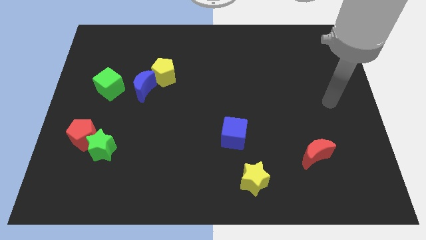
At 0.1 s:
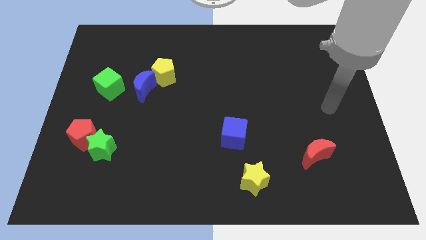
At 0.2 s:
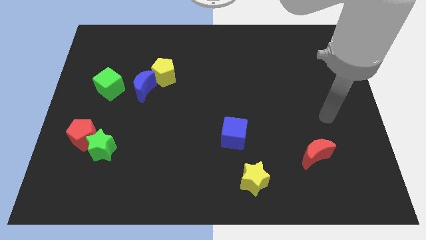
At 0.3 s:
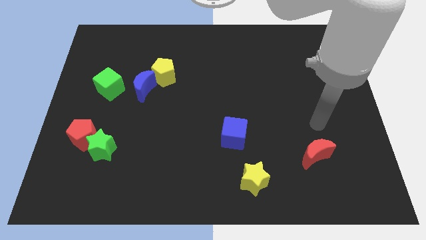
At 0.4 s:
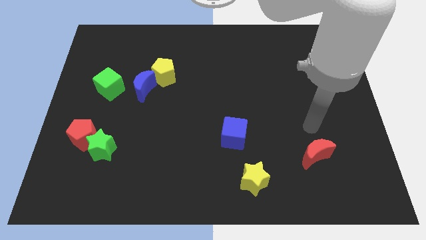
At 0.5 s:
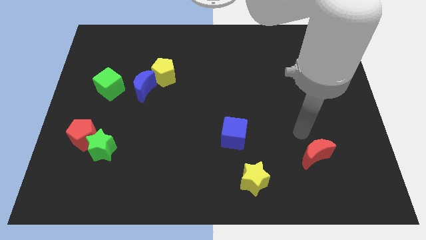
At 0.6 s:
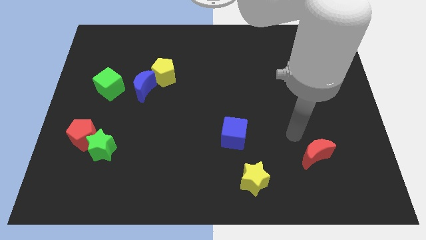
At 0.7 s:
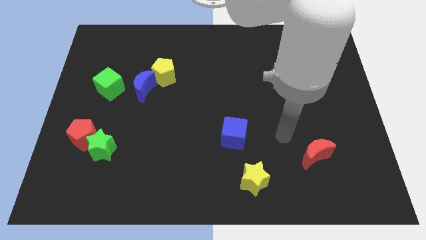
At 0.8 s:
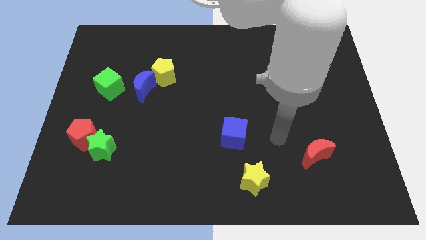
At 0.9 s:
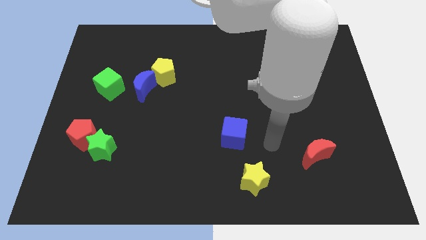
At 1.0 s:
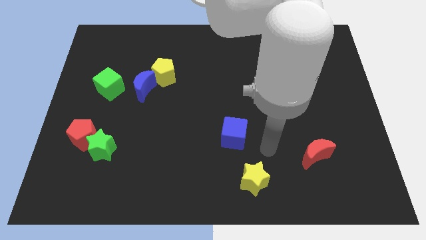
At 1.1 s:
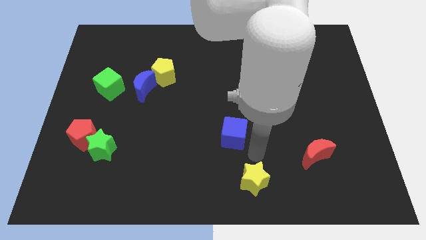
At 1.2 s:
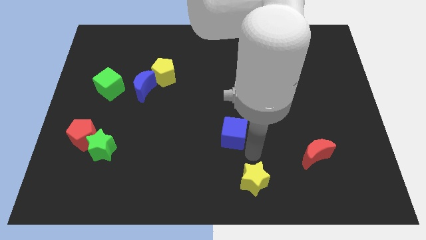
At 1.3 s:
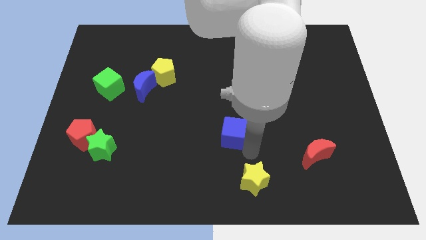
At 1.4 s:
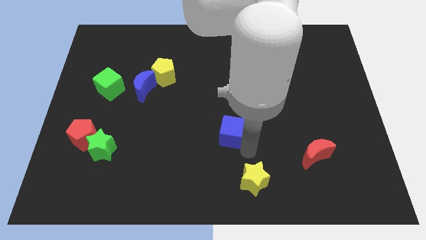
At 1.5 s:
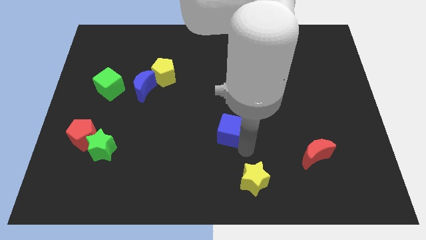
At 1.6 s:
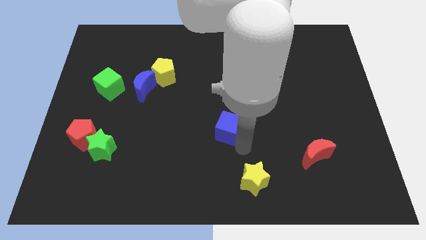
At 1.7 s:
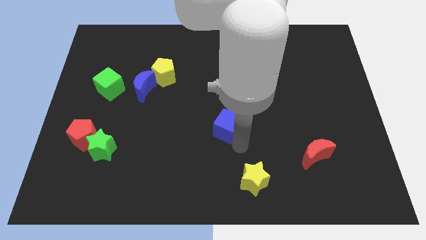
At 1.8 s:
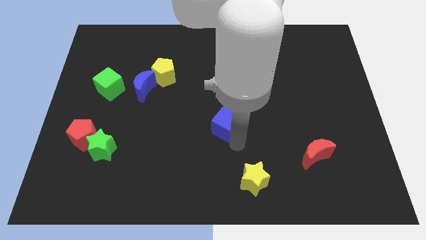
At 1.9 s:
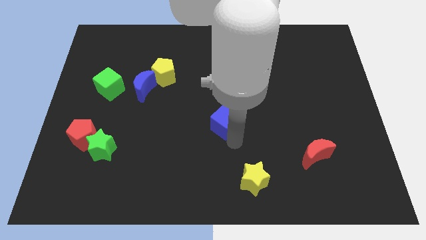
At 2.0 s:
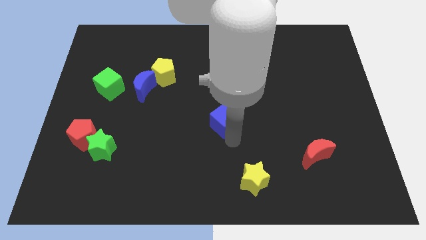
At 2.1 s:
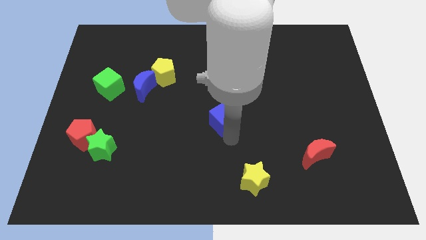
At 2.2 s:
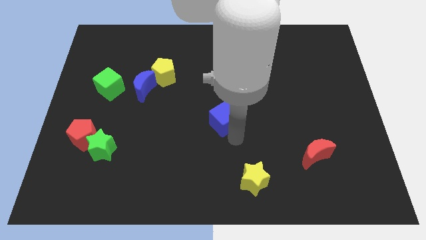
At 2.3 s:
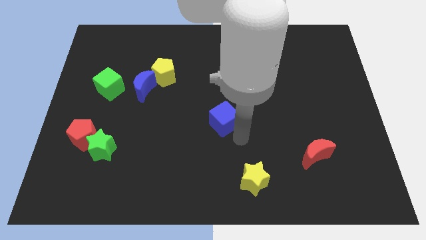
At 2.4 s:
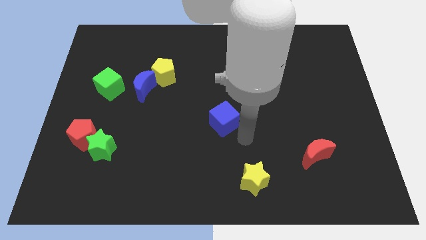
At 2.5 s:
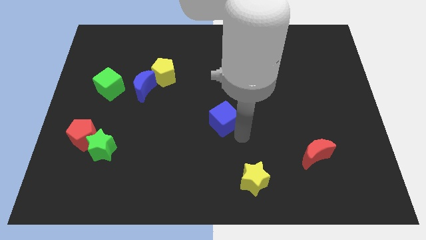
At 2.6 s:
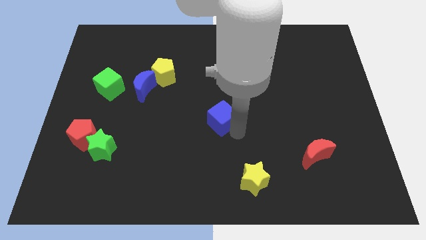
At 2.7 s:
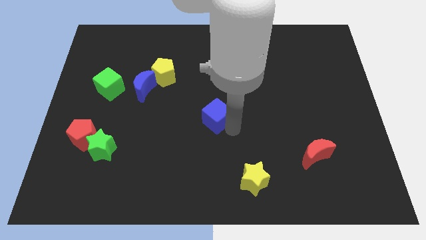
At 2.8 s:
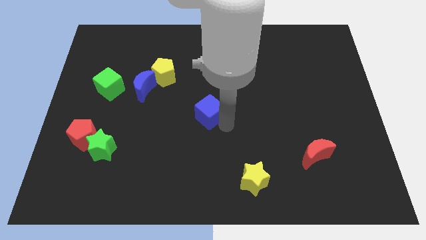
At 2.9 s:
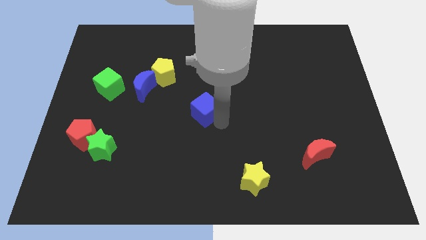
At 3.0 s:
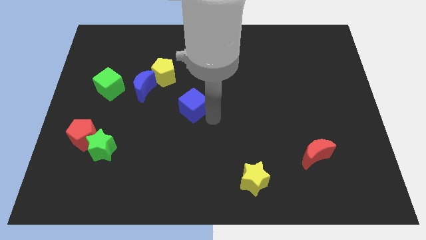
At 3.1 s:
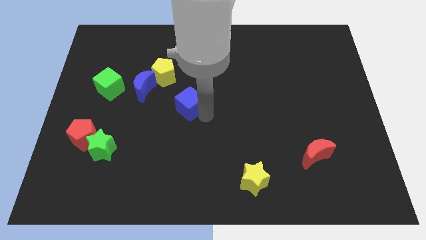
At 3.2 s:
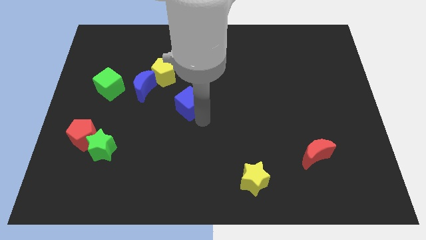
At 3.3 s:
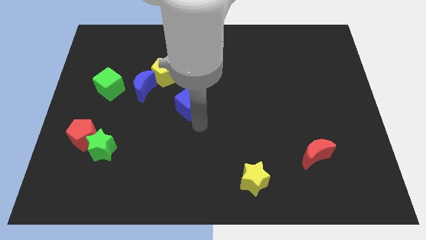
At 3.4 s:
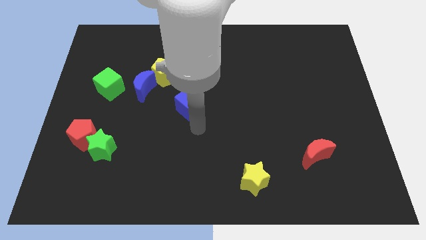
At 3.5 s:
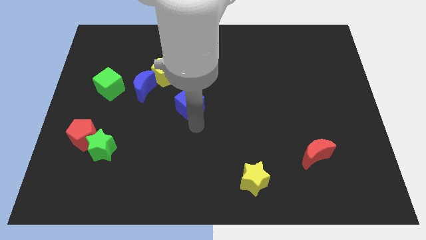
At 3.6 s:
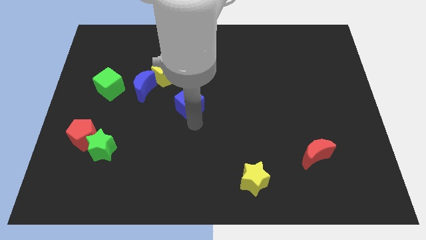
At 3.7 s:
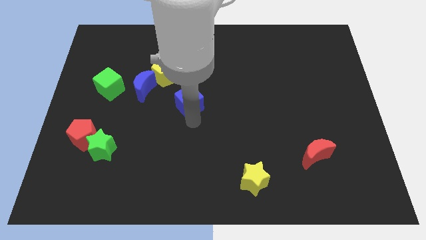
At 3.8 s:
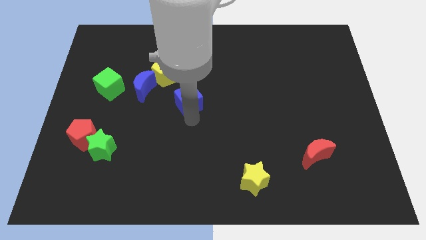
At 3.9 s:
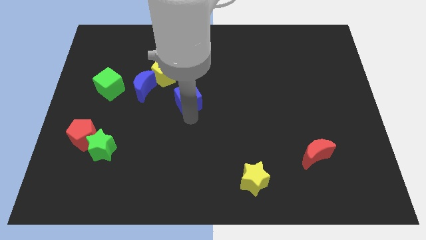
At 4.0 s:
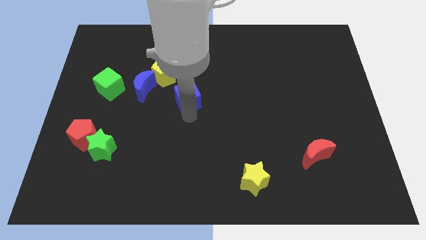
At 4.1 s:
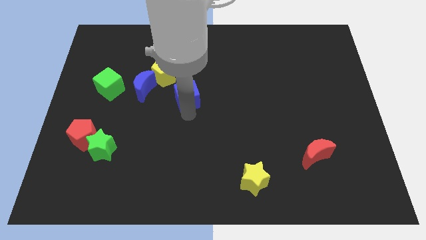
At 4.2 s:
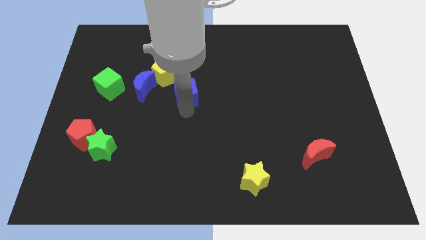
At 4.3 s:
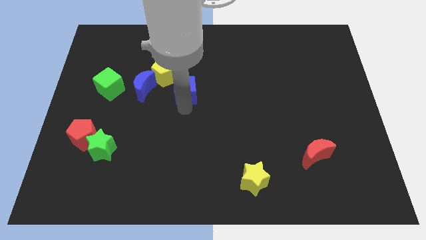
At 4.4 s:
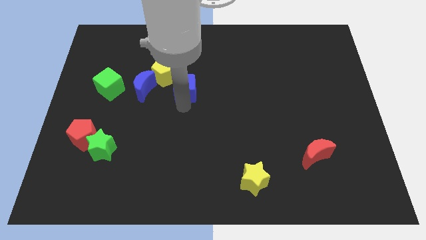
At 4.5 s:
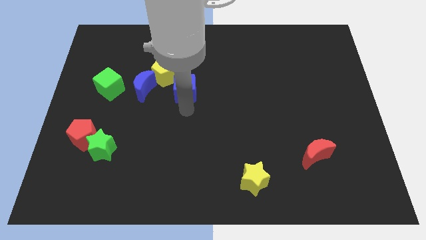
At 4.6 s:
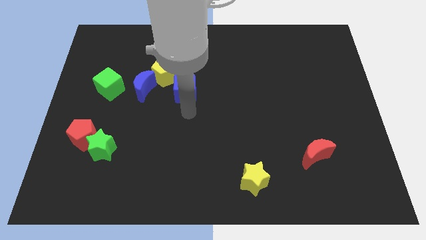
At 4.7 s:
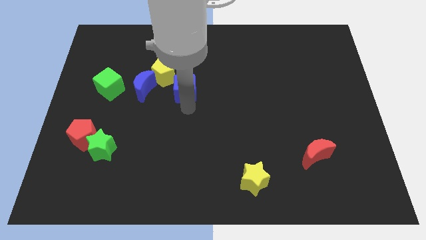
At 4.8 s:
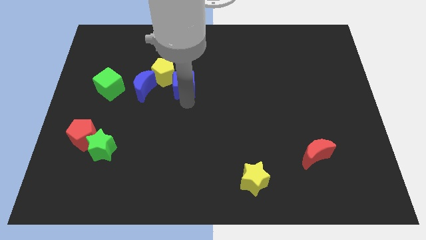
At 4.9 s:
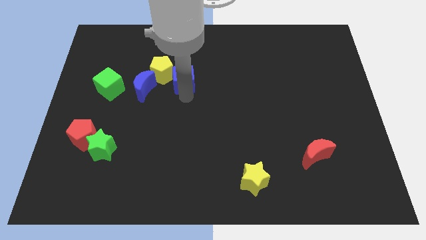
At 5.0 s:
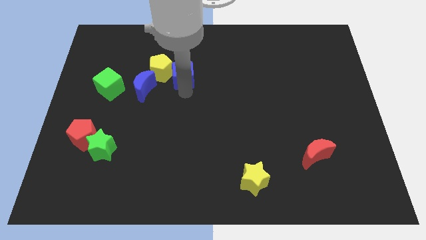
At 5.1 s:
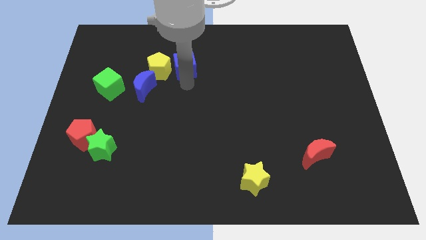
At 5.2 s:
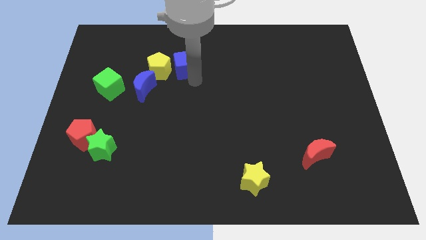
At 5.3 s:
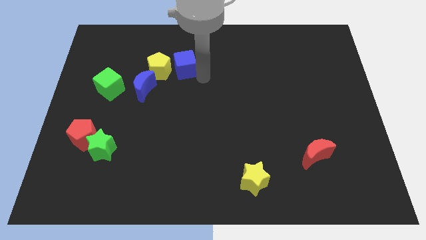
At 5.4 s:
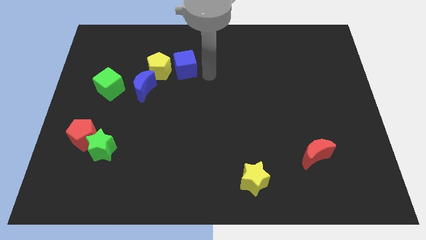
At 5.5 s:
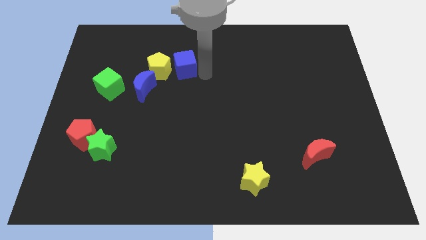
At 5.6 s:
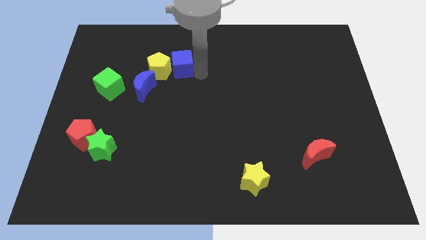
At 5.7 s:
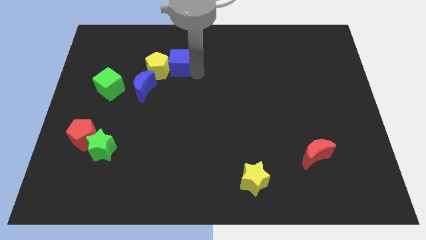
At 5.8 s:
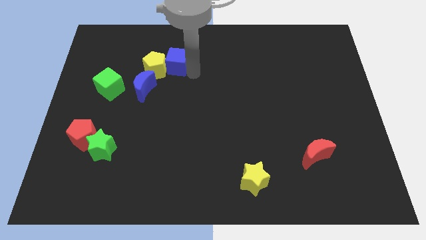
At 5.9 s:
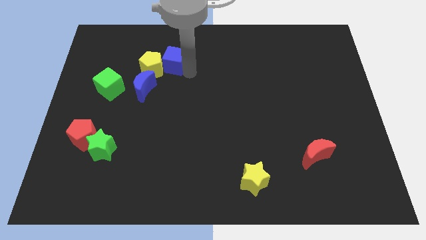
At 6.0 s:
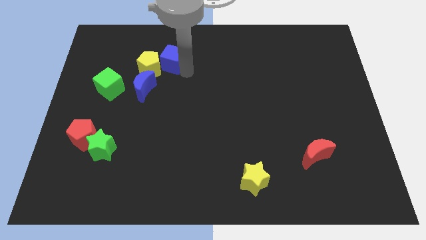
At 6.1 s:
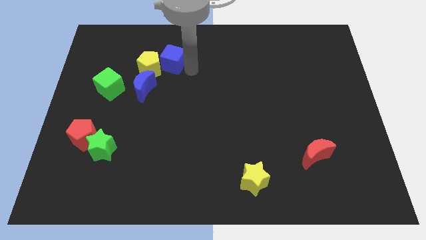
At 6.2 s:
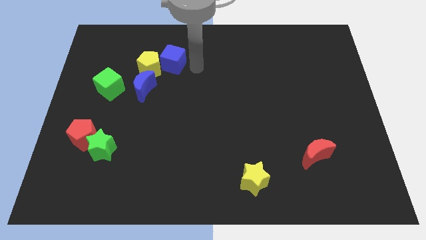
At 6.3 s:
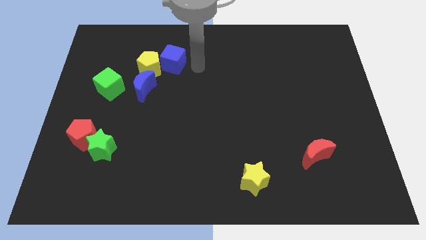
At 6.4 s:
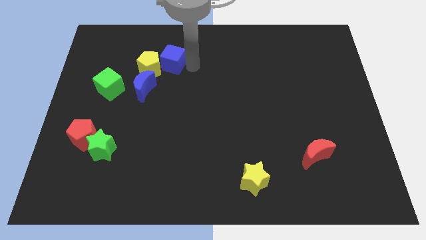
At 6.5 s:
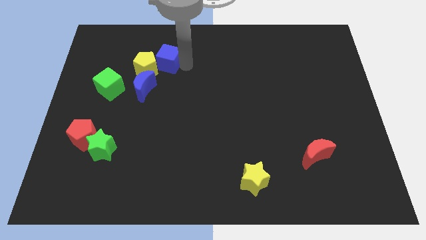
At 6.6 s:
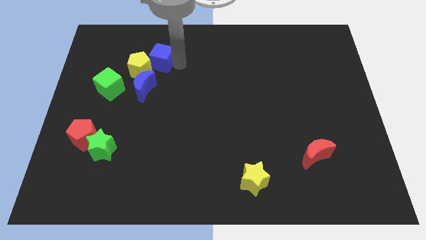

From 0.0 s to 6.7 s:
slide the blue cube above the blue moon

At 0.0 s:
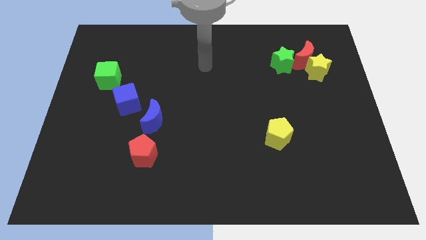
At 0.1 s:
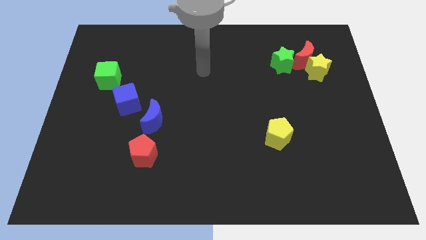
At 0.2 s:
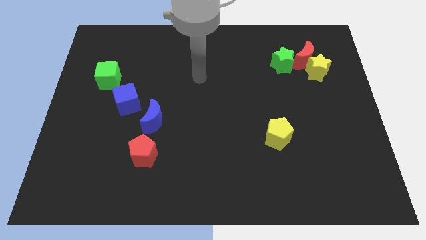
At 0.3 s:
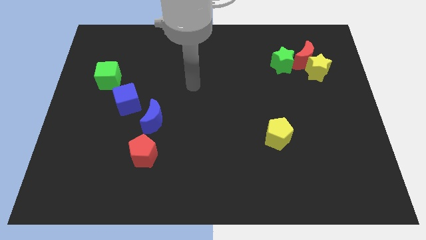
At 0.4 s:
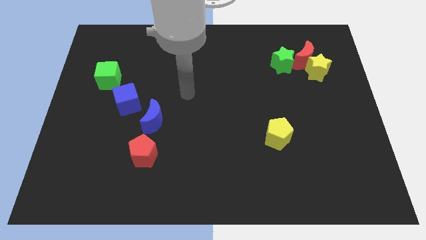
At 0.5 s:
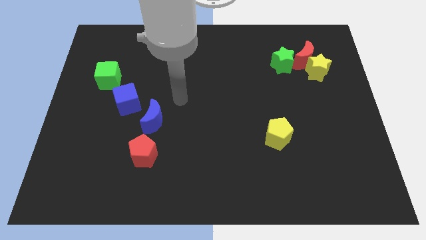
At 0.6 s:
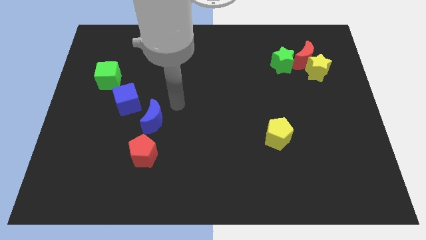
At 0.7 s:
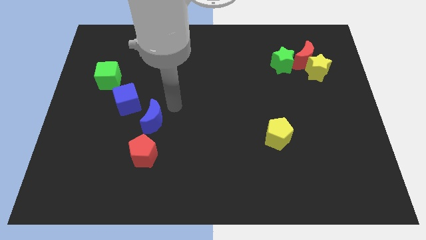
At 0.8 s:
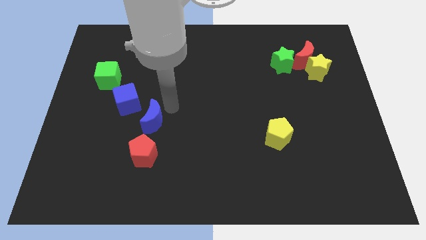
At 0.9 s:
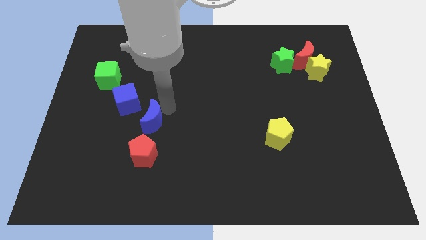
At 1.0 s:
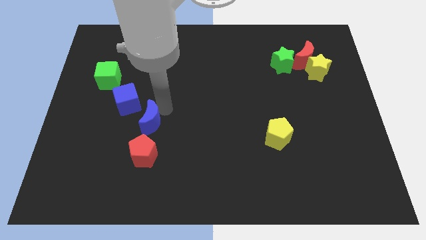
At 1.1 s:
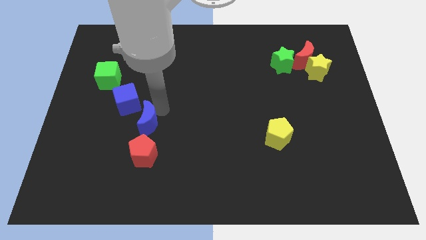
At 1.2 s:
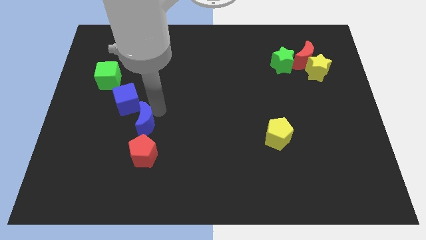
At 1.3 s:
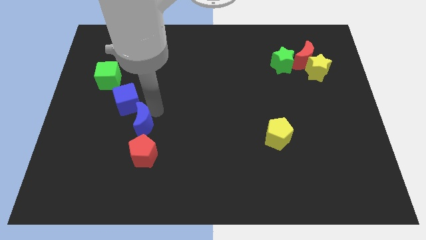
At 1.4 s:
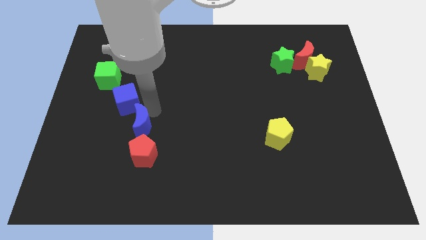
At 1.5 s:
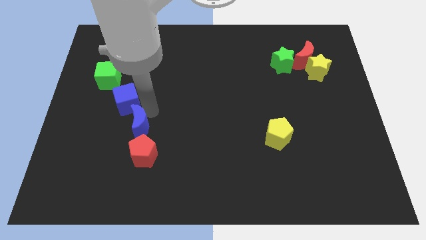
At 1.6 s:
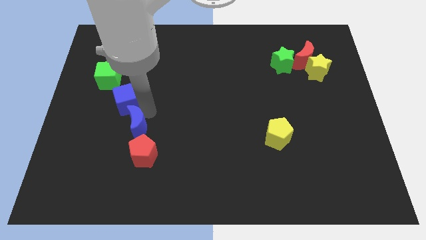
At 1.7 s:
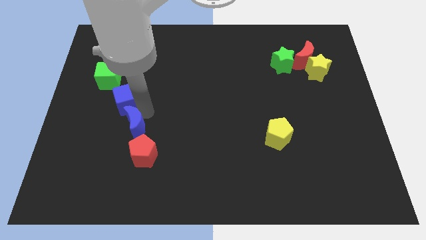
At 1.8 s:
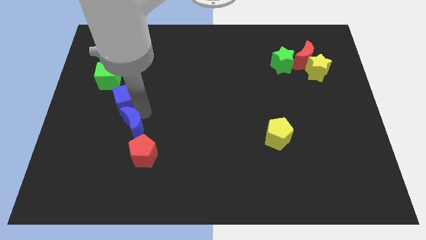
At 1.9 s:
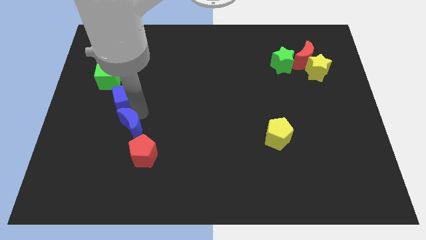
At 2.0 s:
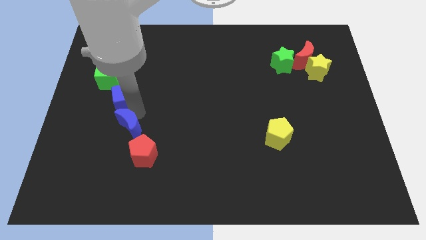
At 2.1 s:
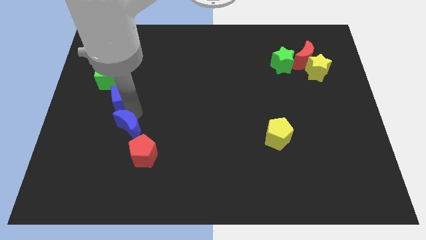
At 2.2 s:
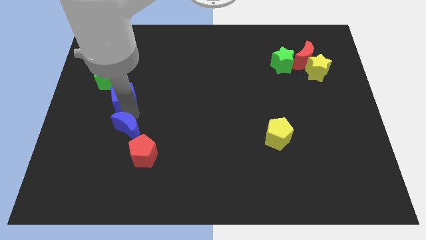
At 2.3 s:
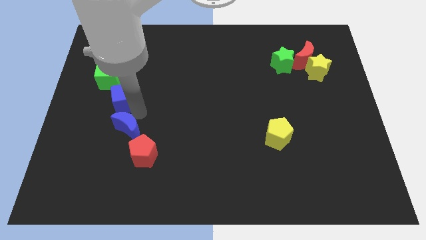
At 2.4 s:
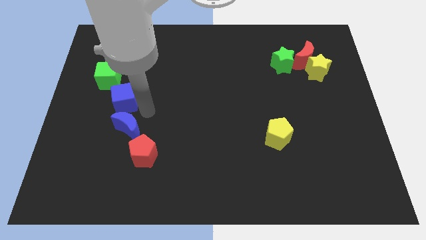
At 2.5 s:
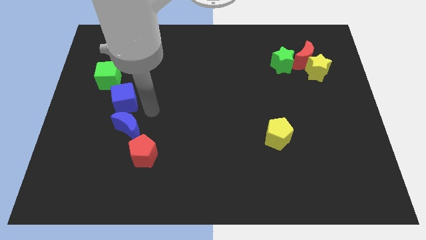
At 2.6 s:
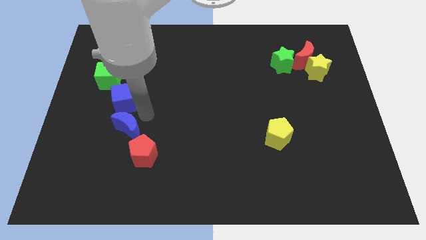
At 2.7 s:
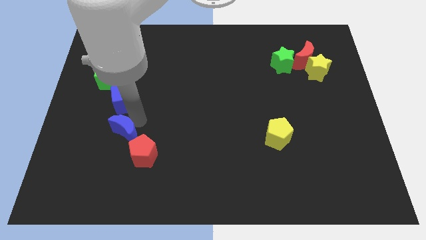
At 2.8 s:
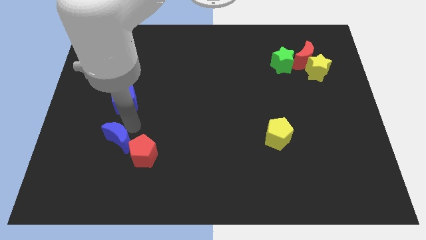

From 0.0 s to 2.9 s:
put the blue moon left of the red pentagon
